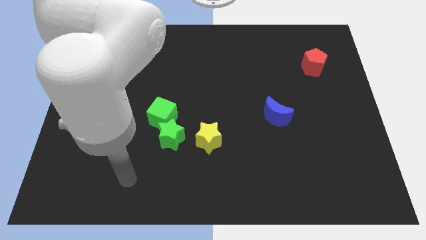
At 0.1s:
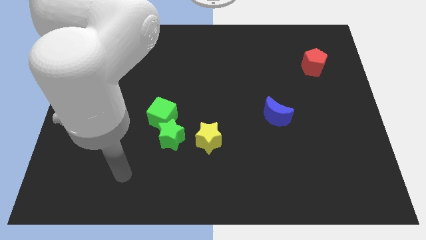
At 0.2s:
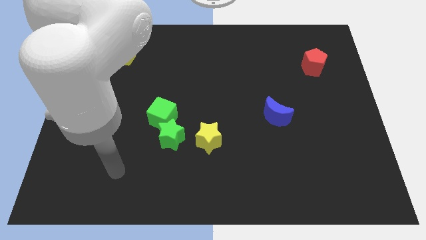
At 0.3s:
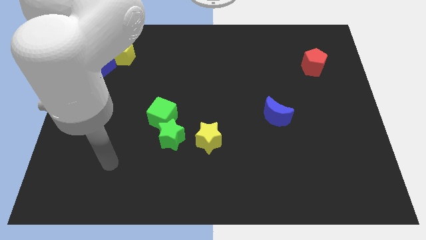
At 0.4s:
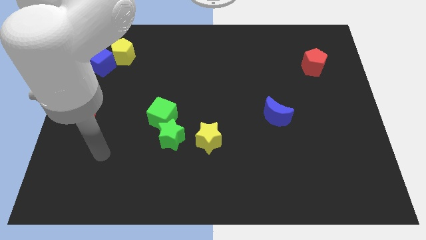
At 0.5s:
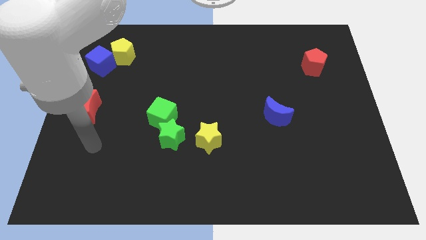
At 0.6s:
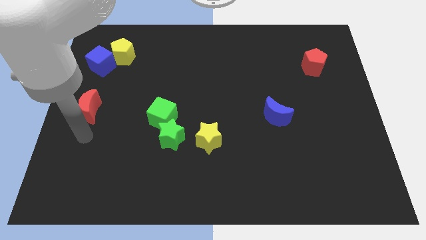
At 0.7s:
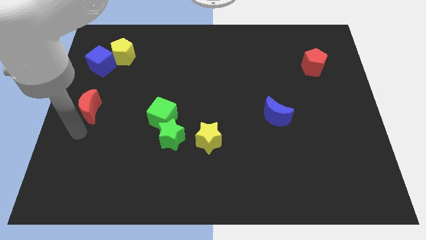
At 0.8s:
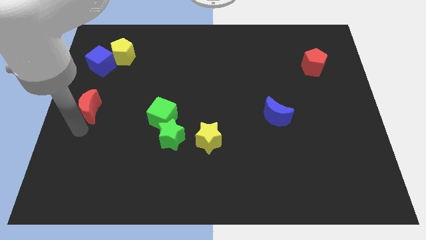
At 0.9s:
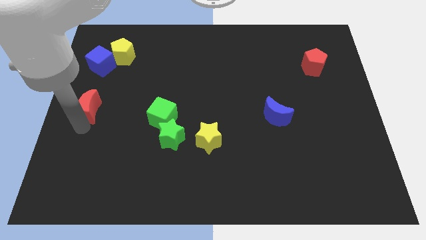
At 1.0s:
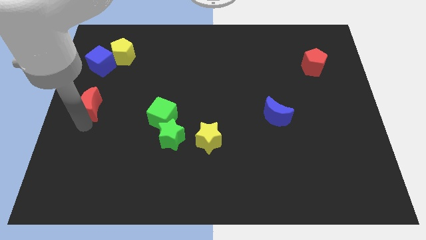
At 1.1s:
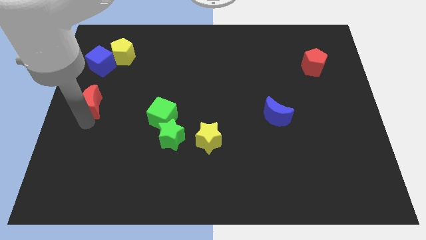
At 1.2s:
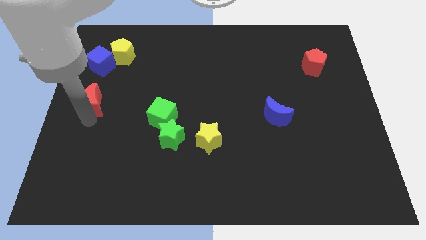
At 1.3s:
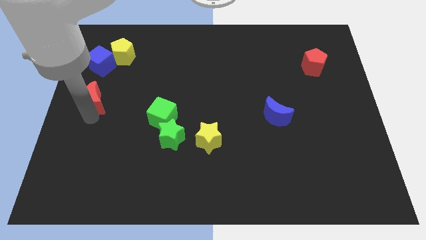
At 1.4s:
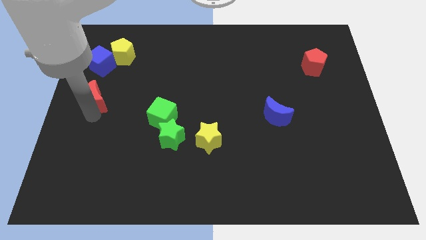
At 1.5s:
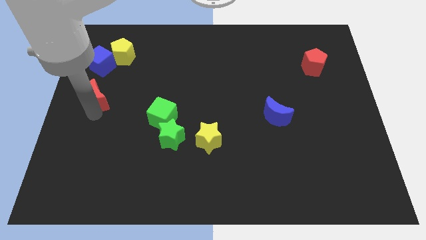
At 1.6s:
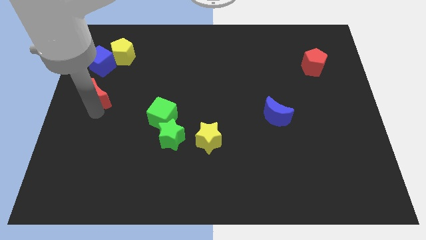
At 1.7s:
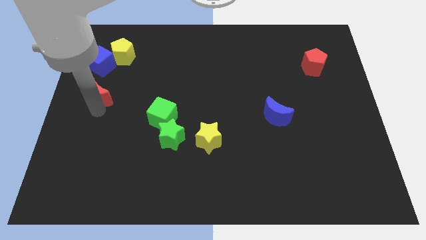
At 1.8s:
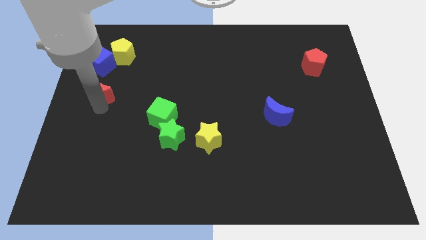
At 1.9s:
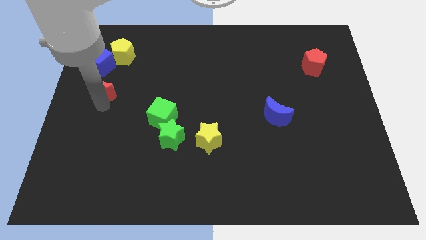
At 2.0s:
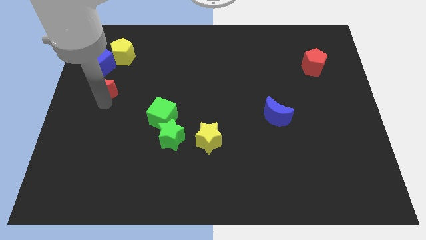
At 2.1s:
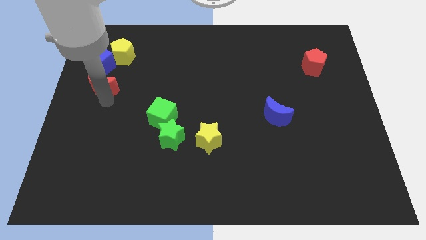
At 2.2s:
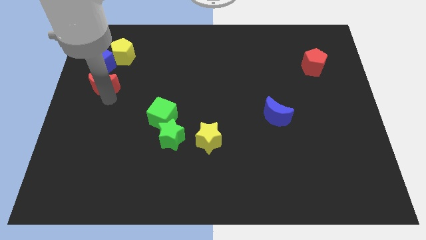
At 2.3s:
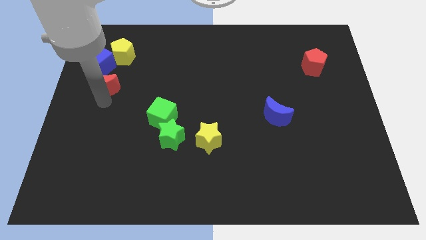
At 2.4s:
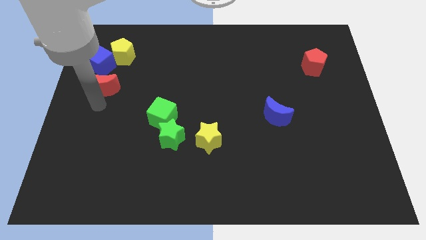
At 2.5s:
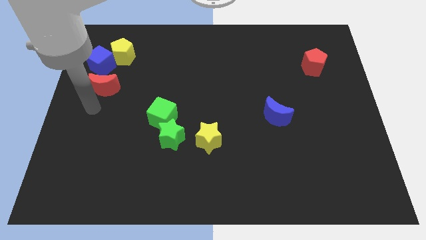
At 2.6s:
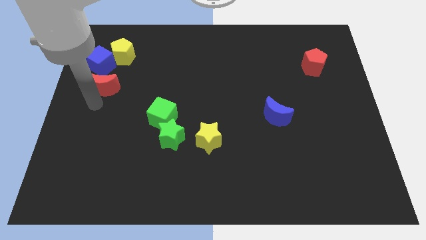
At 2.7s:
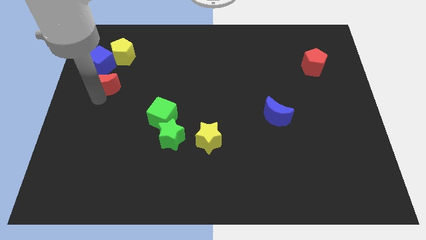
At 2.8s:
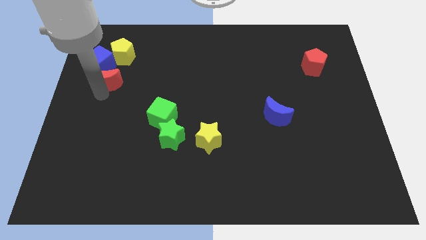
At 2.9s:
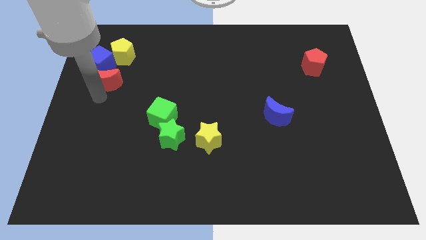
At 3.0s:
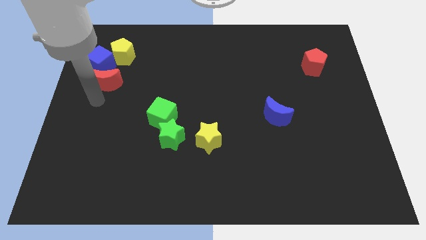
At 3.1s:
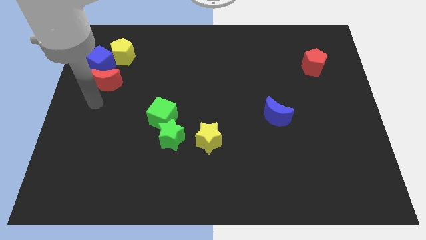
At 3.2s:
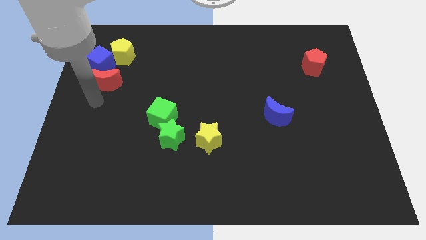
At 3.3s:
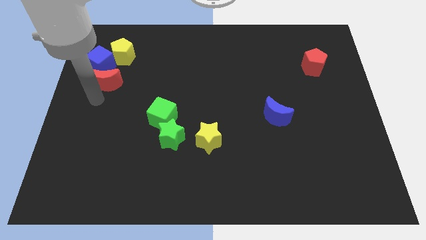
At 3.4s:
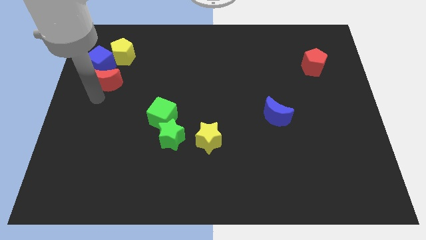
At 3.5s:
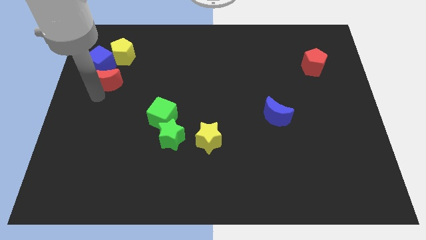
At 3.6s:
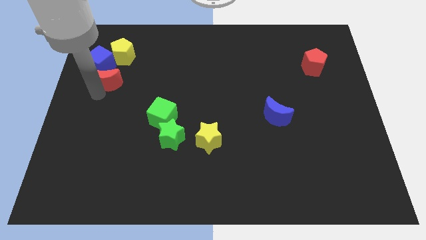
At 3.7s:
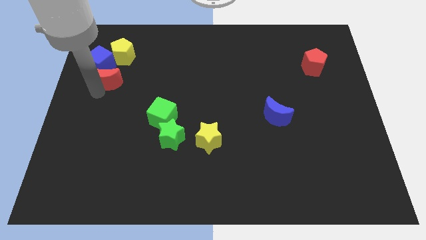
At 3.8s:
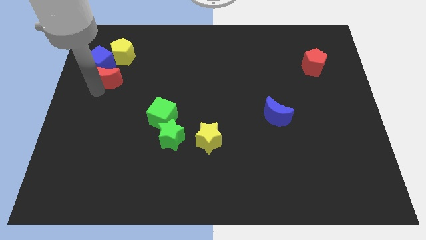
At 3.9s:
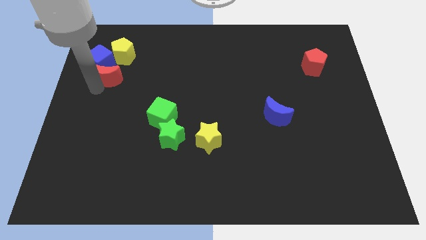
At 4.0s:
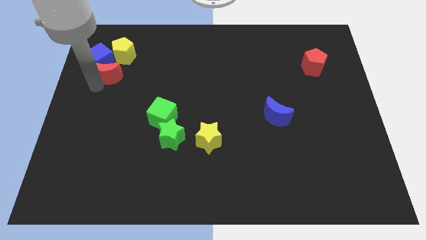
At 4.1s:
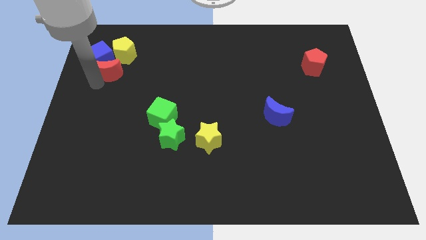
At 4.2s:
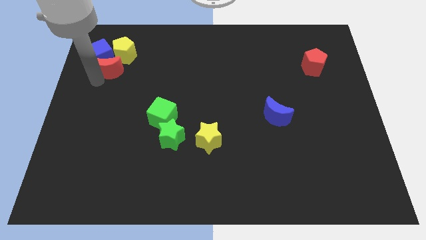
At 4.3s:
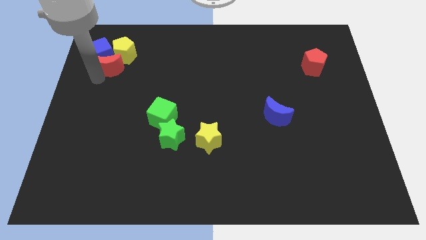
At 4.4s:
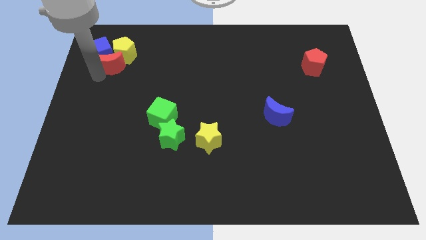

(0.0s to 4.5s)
put the red moon to the yellow pentagon

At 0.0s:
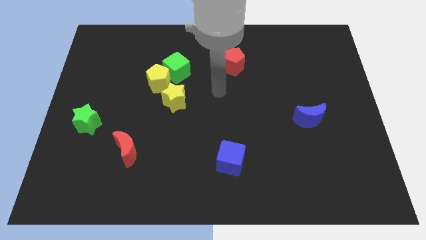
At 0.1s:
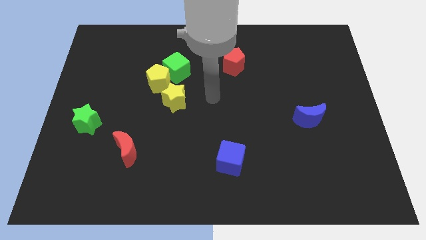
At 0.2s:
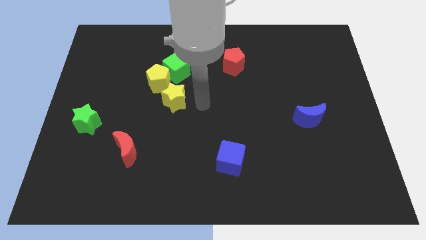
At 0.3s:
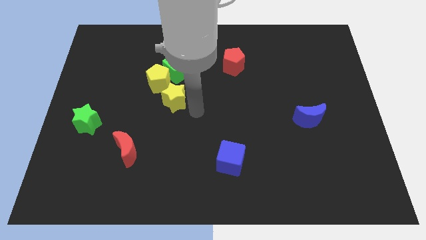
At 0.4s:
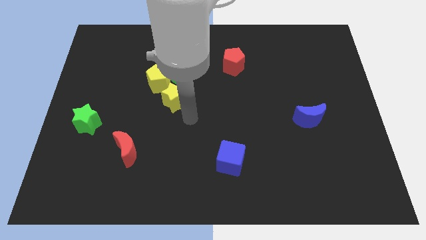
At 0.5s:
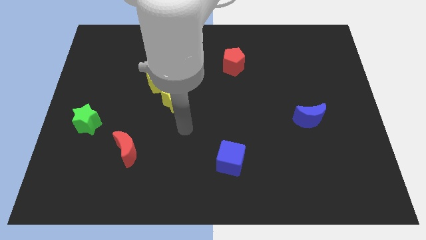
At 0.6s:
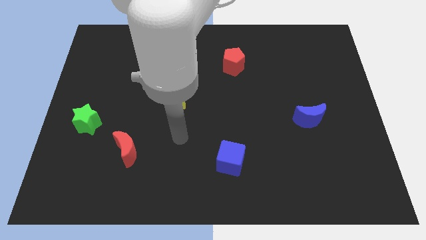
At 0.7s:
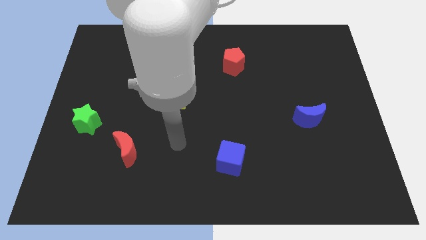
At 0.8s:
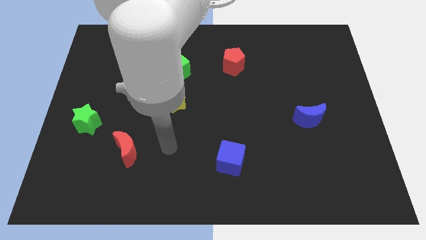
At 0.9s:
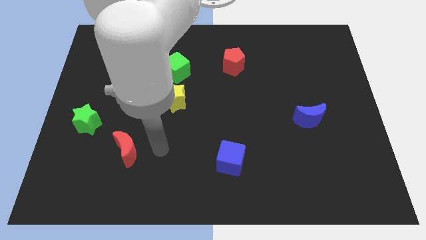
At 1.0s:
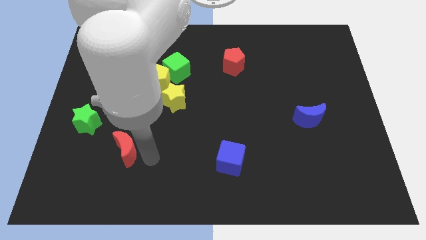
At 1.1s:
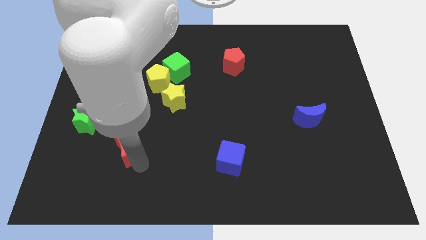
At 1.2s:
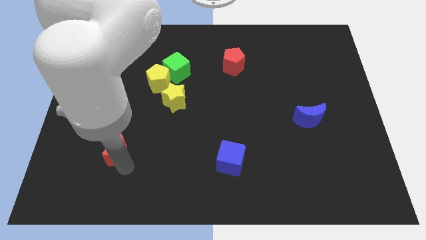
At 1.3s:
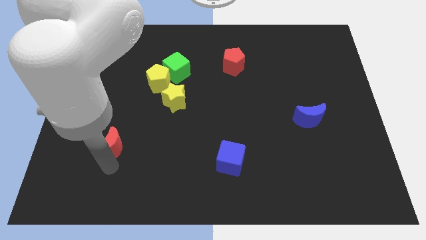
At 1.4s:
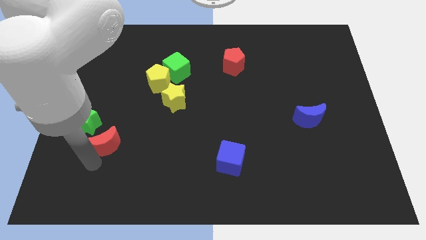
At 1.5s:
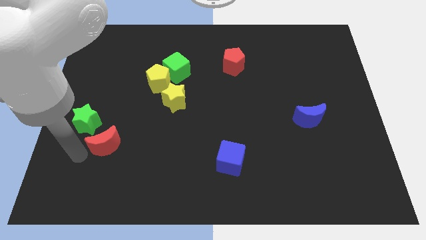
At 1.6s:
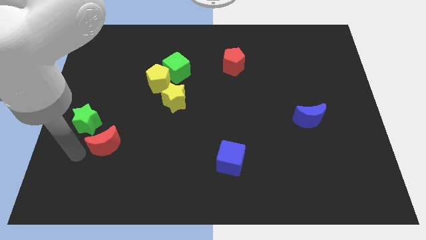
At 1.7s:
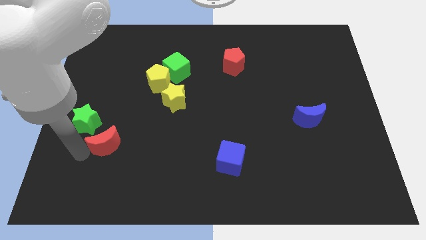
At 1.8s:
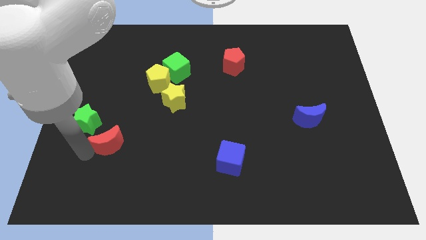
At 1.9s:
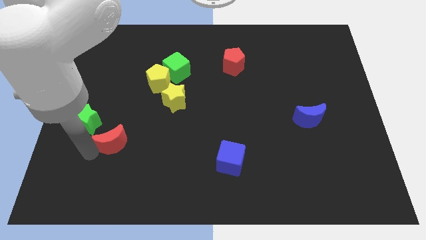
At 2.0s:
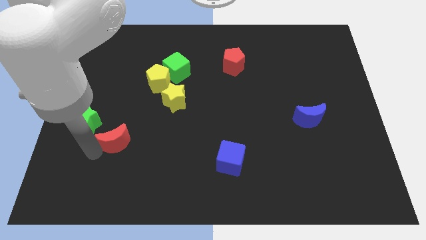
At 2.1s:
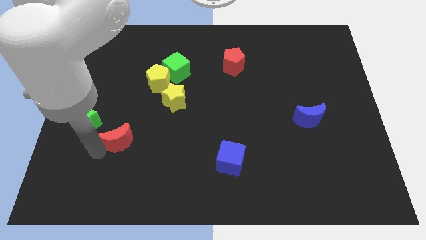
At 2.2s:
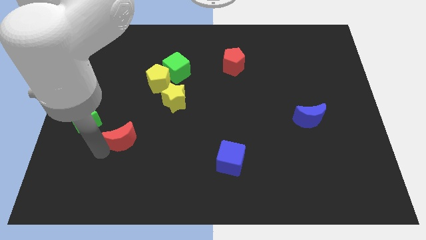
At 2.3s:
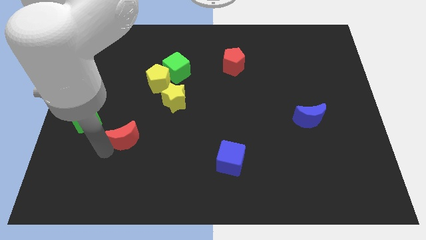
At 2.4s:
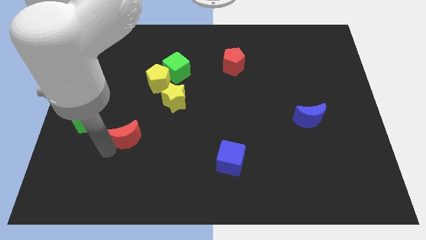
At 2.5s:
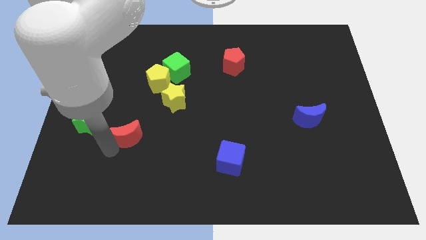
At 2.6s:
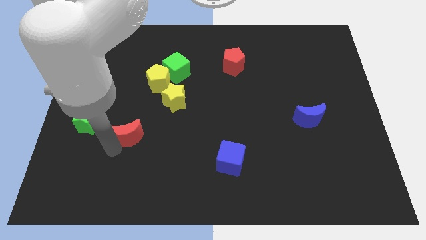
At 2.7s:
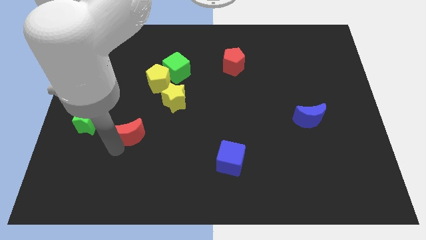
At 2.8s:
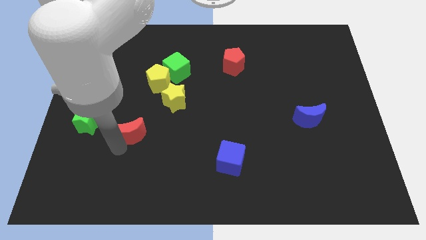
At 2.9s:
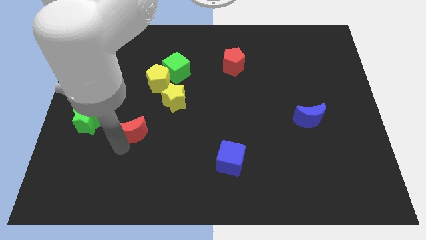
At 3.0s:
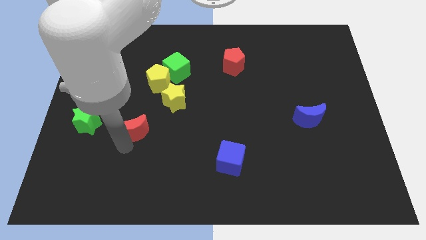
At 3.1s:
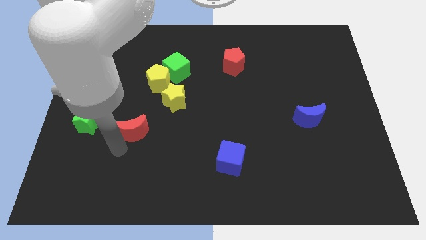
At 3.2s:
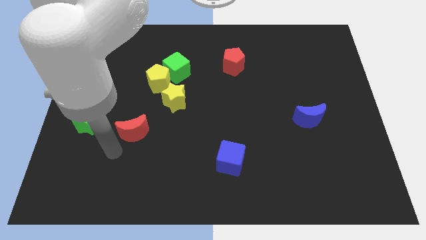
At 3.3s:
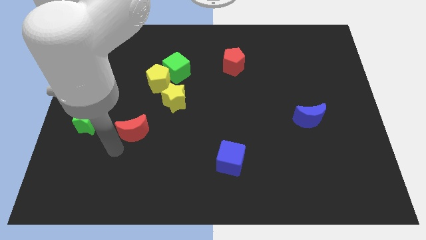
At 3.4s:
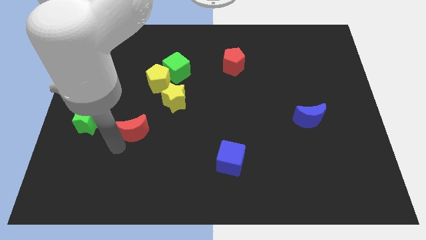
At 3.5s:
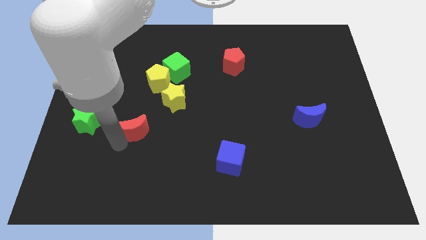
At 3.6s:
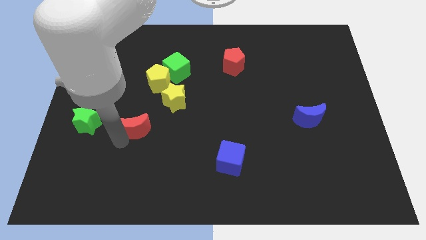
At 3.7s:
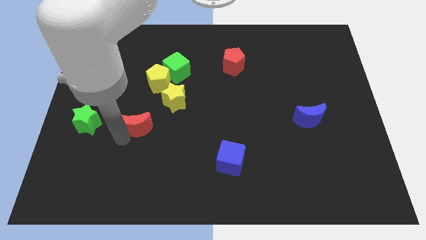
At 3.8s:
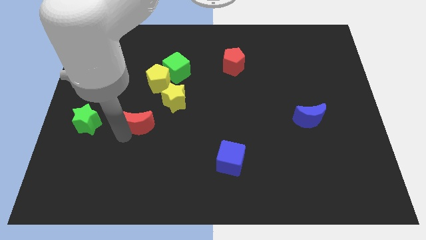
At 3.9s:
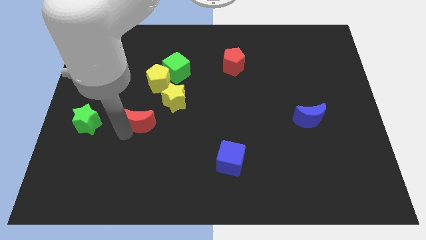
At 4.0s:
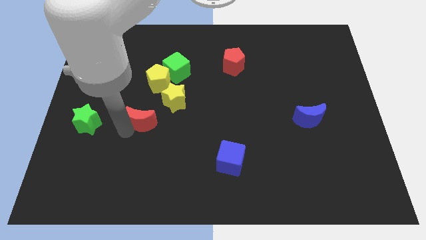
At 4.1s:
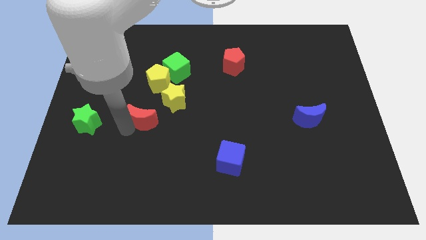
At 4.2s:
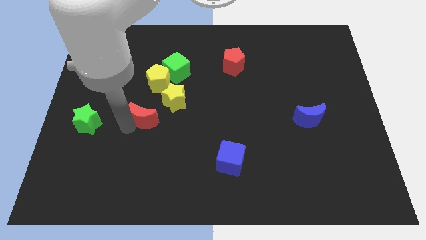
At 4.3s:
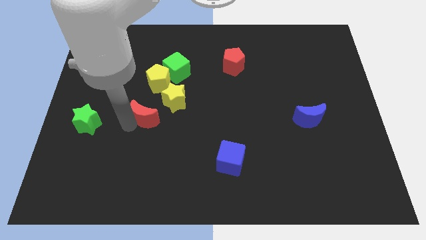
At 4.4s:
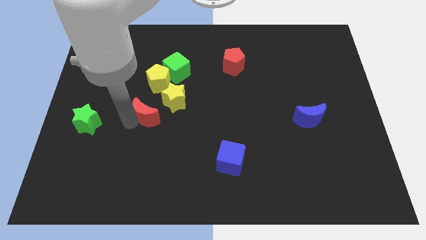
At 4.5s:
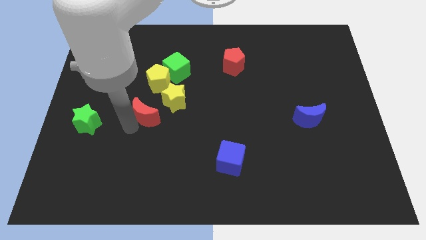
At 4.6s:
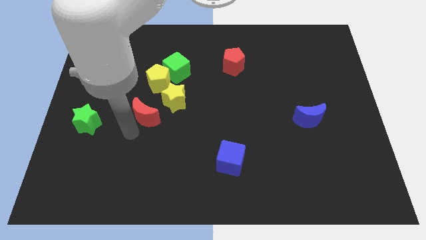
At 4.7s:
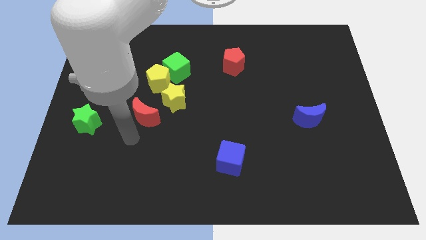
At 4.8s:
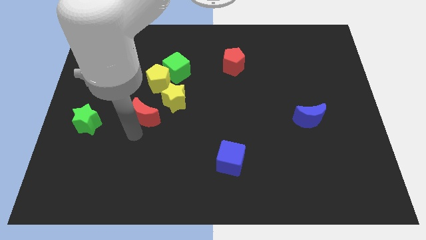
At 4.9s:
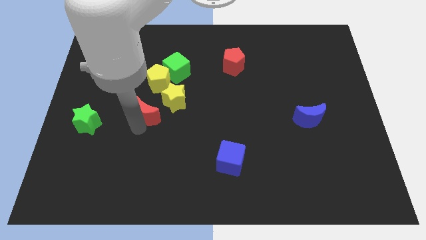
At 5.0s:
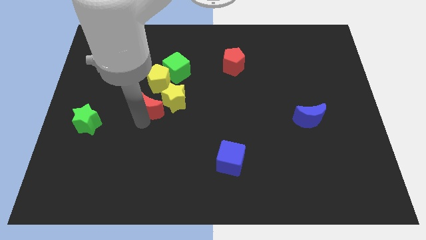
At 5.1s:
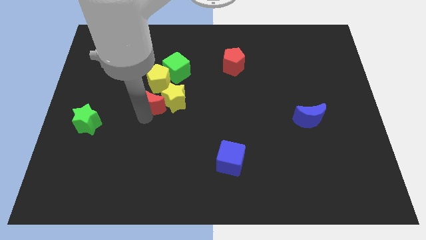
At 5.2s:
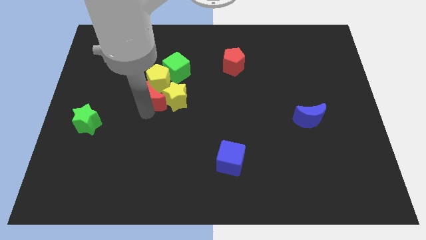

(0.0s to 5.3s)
move the red moon to the yellow pentagon
